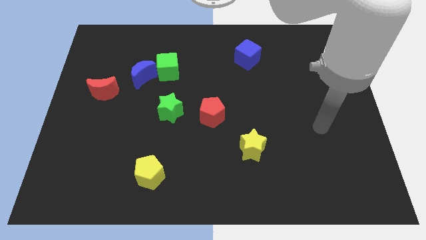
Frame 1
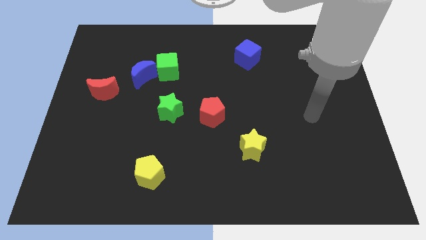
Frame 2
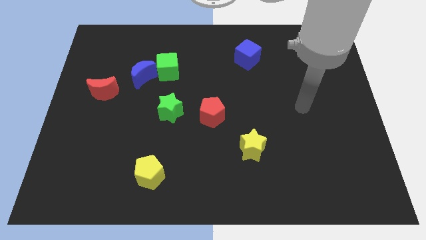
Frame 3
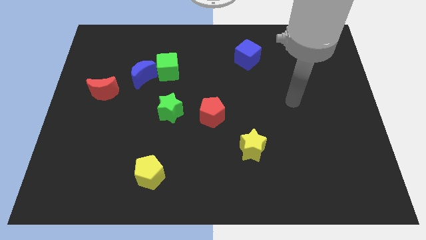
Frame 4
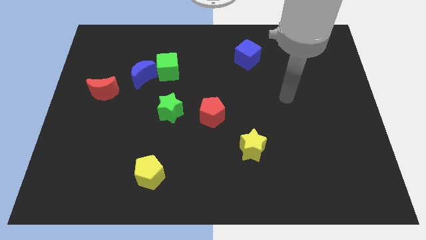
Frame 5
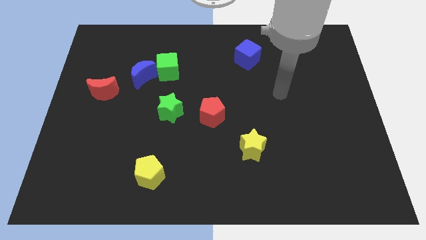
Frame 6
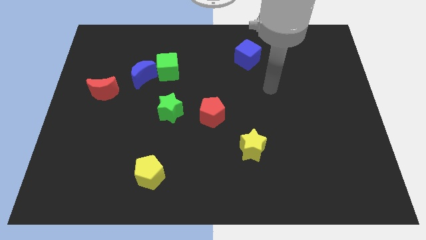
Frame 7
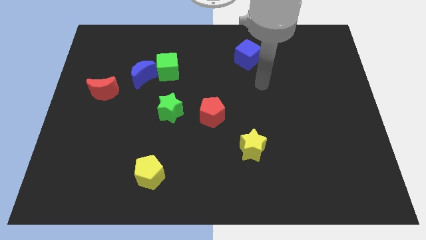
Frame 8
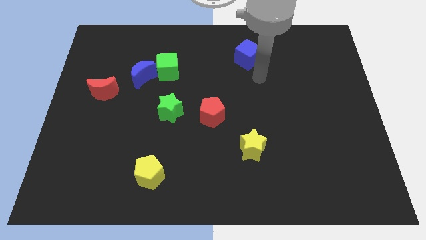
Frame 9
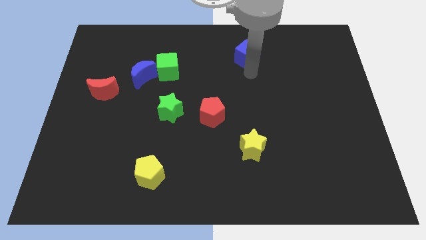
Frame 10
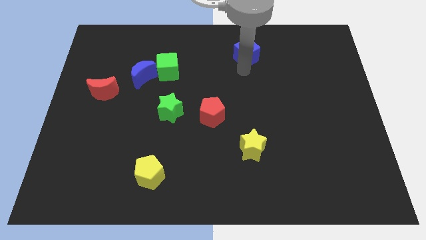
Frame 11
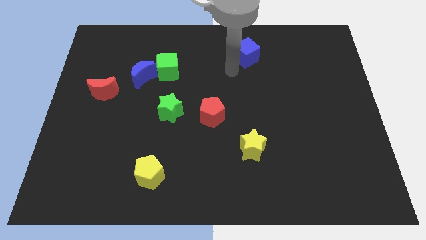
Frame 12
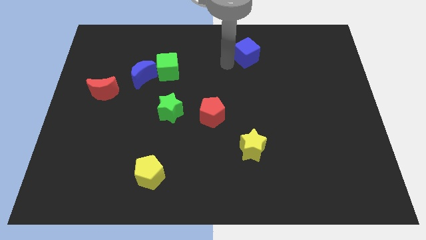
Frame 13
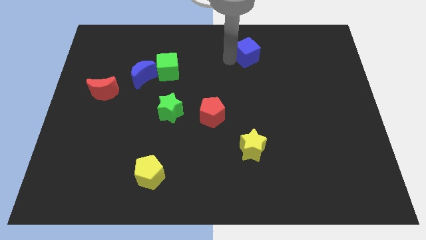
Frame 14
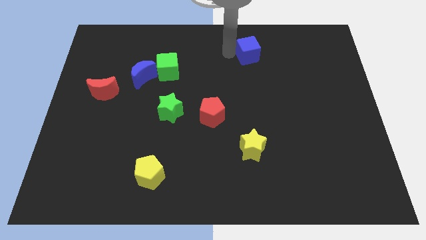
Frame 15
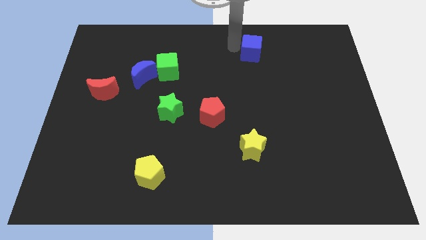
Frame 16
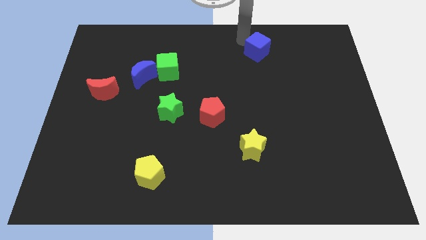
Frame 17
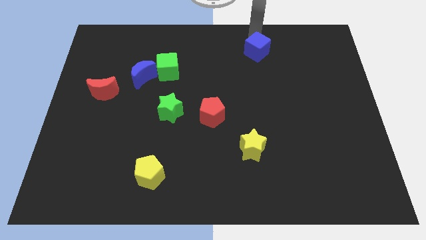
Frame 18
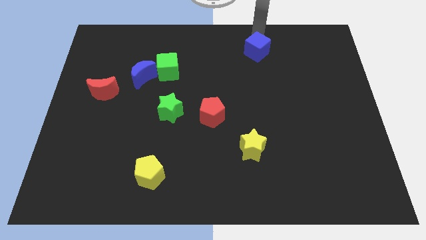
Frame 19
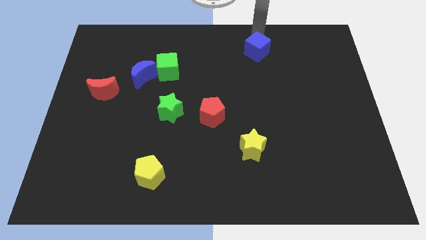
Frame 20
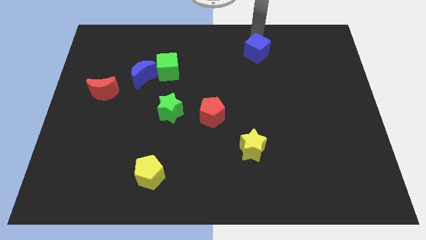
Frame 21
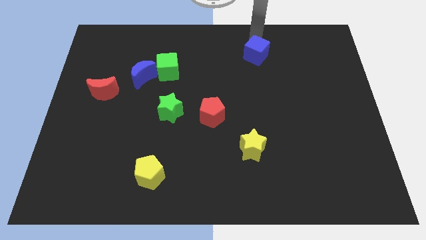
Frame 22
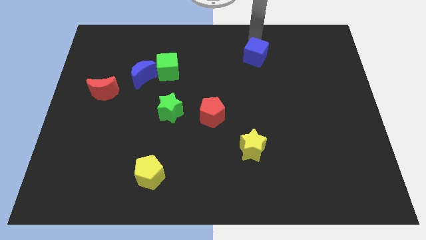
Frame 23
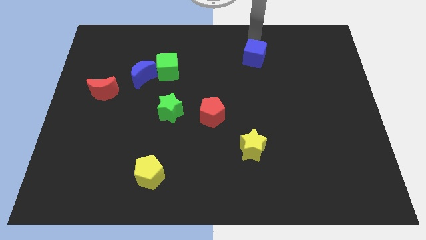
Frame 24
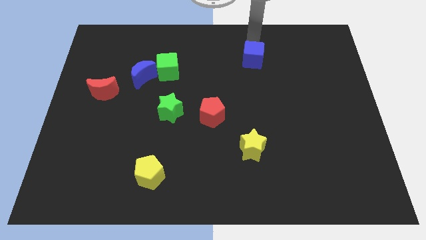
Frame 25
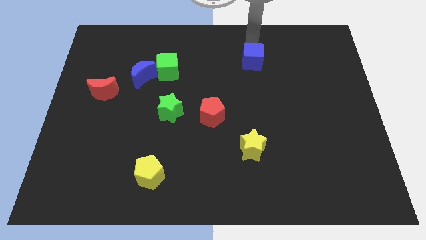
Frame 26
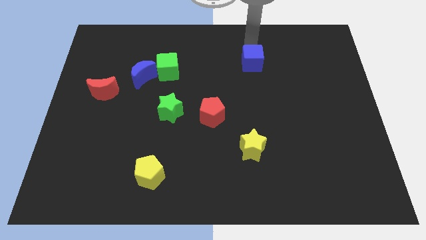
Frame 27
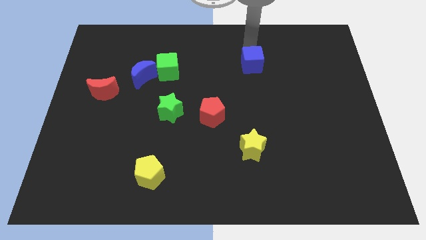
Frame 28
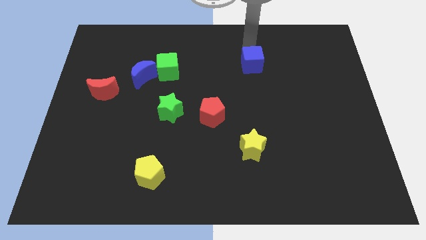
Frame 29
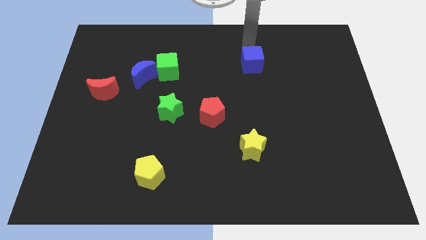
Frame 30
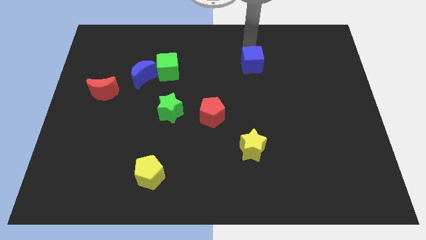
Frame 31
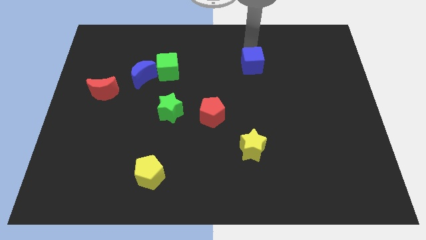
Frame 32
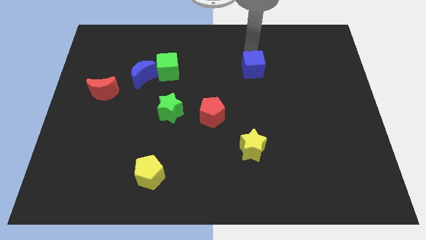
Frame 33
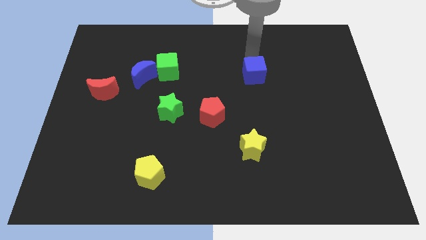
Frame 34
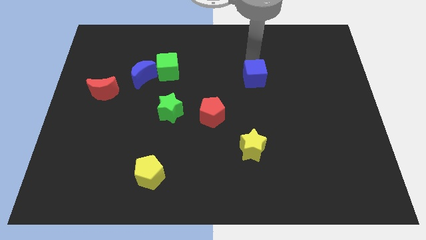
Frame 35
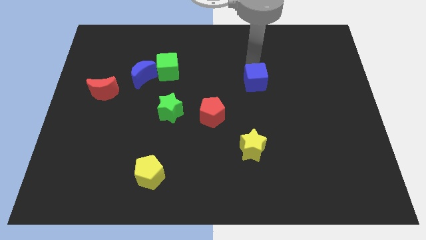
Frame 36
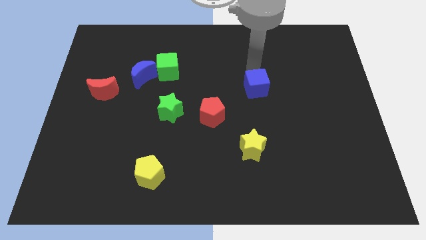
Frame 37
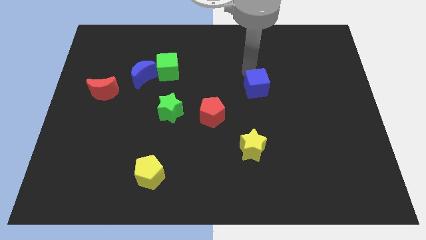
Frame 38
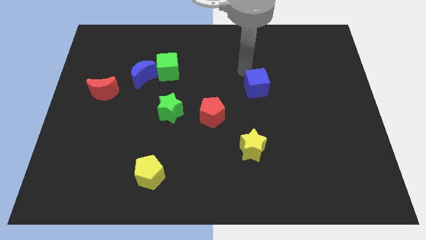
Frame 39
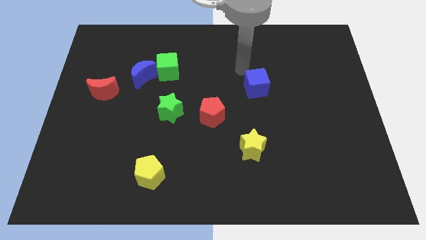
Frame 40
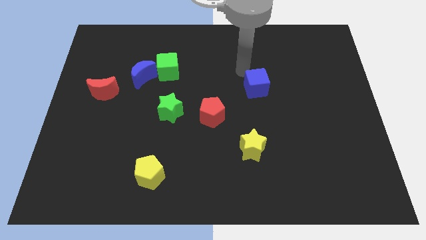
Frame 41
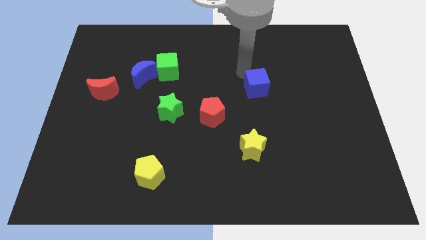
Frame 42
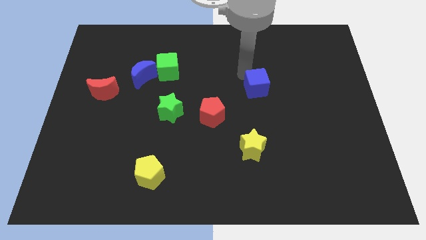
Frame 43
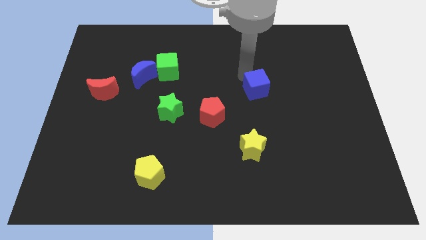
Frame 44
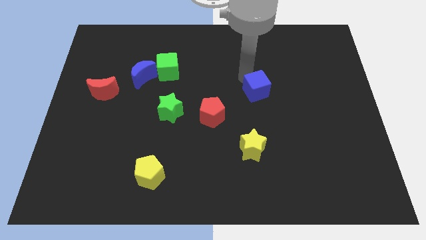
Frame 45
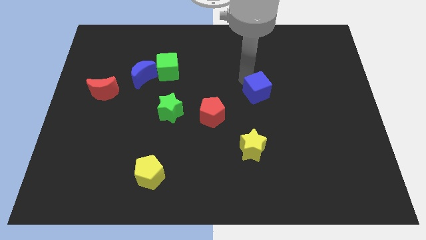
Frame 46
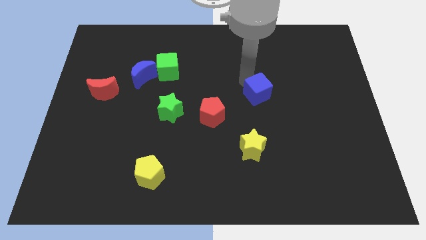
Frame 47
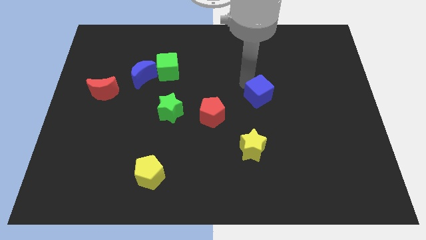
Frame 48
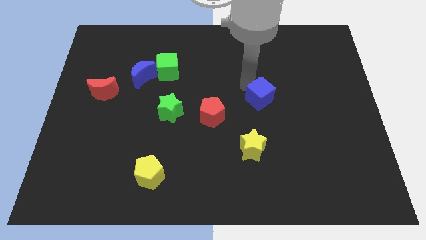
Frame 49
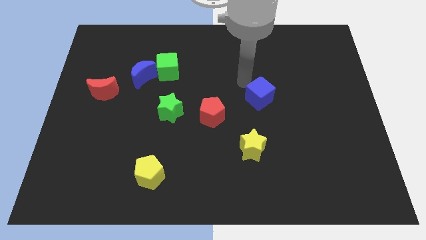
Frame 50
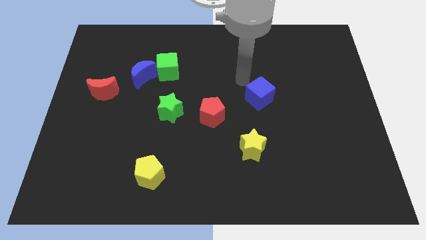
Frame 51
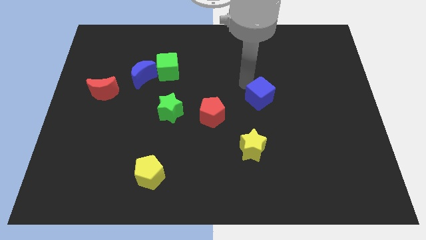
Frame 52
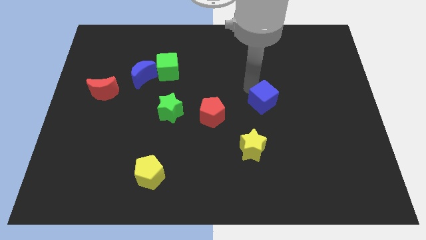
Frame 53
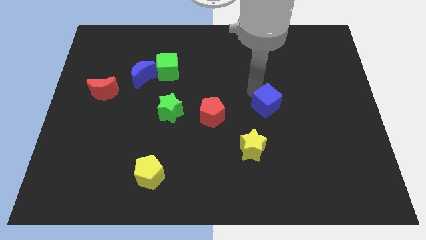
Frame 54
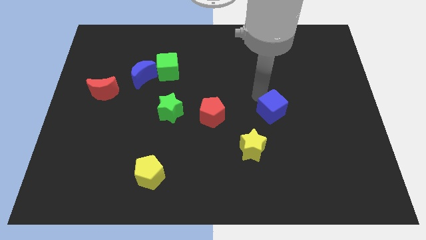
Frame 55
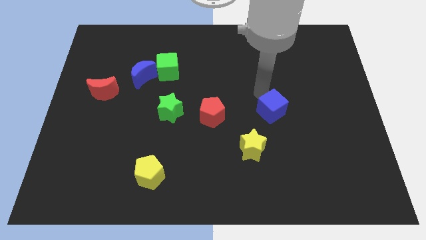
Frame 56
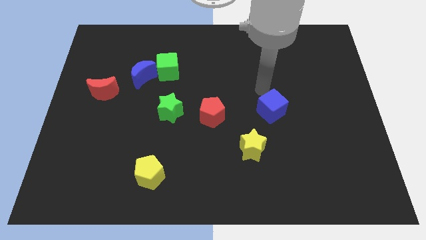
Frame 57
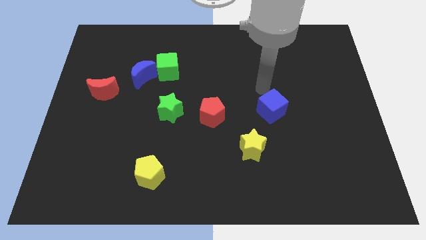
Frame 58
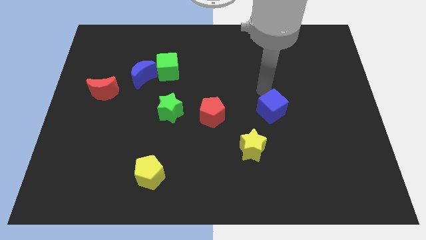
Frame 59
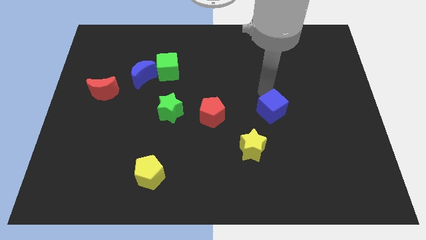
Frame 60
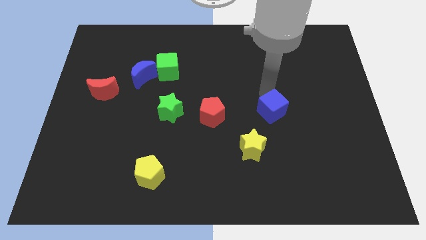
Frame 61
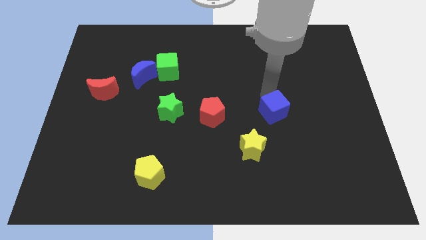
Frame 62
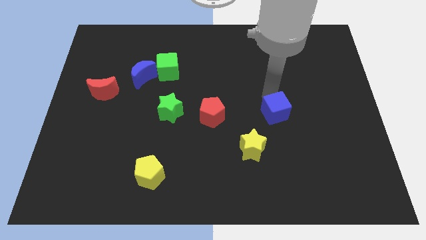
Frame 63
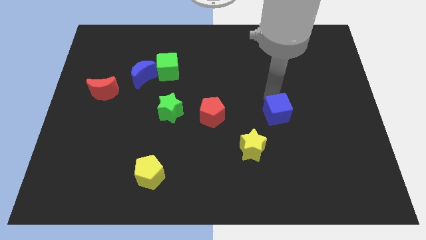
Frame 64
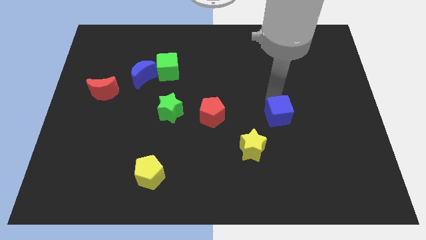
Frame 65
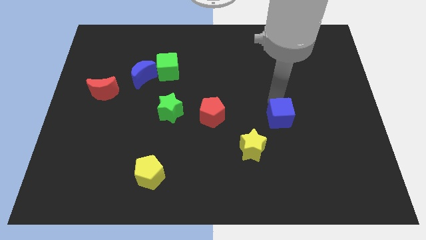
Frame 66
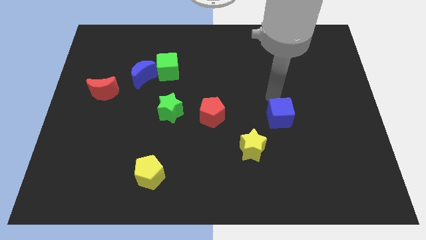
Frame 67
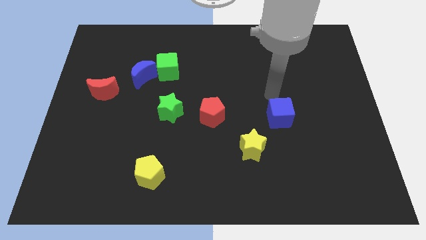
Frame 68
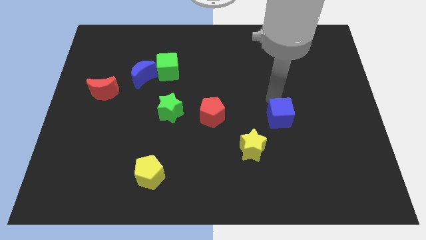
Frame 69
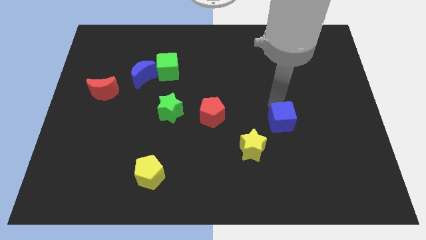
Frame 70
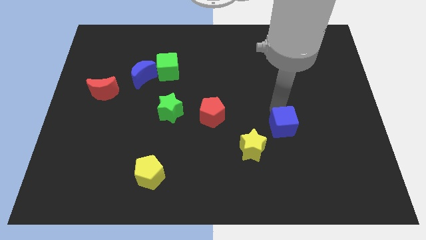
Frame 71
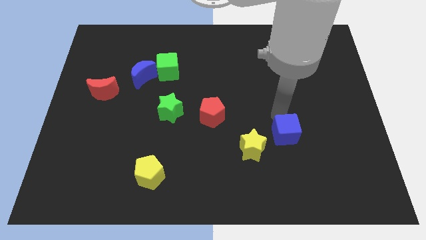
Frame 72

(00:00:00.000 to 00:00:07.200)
move the blue cube just right of the yellow star

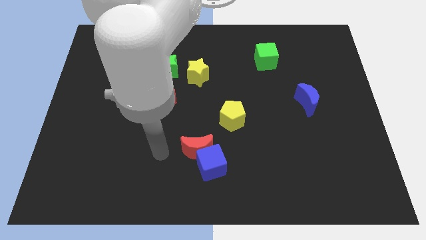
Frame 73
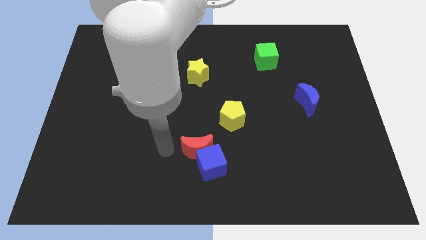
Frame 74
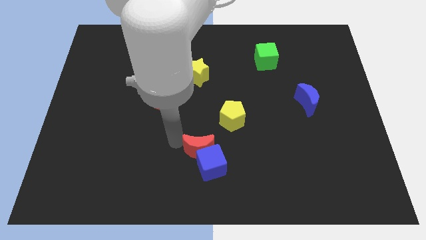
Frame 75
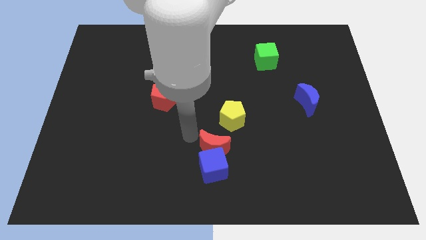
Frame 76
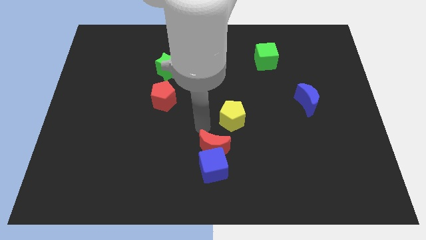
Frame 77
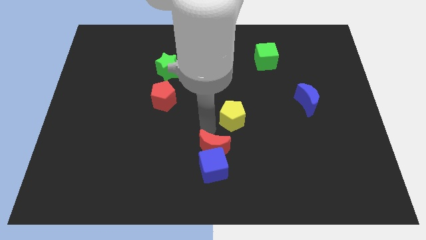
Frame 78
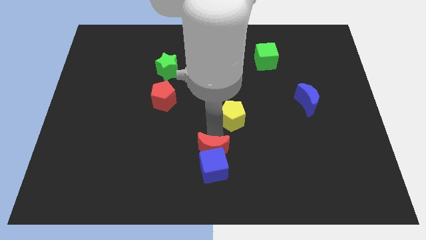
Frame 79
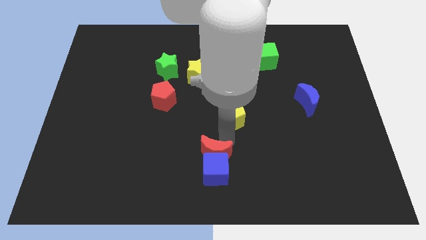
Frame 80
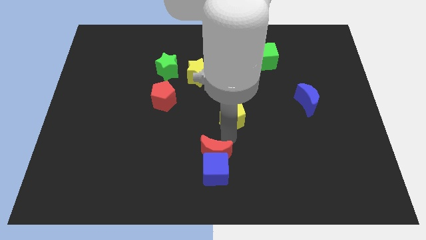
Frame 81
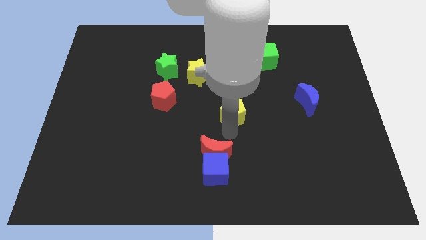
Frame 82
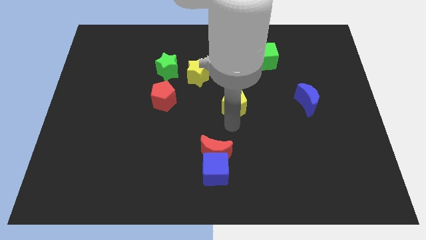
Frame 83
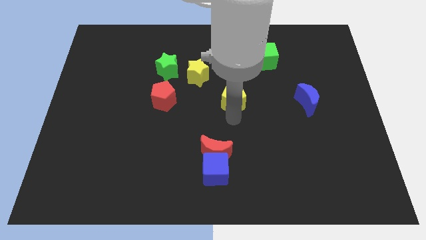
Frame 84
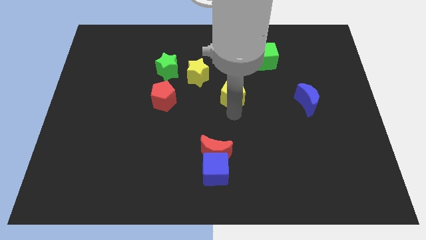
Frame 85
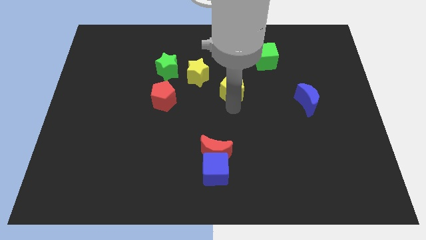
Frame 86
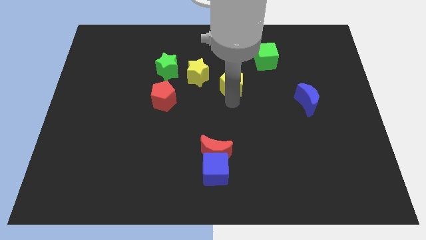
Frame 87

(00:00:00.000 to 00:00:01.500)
move the yellow pentagon to the right of the yellow star
